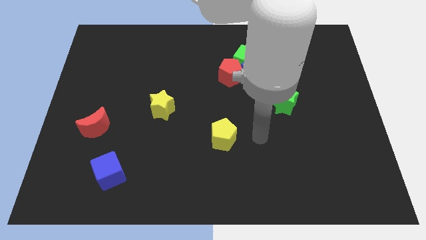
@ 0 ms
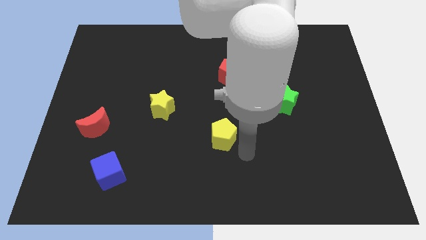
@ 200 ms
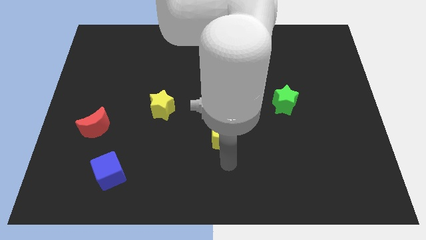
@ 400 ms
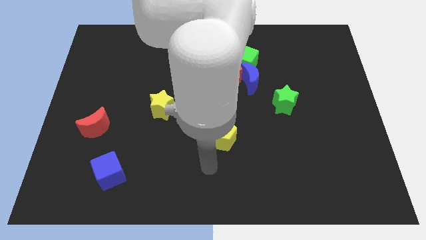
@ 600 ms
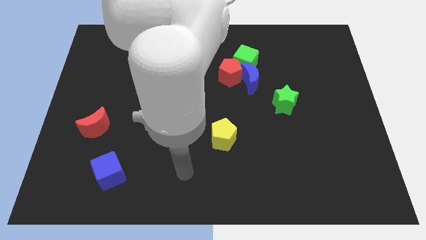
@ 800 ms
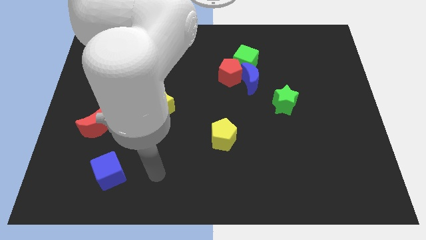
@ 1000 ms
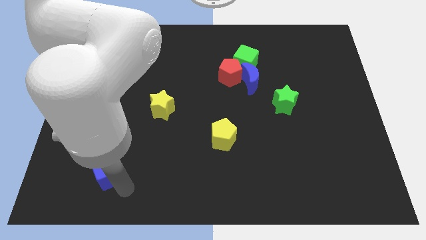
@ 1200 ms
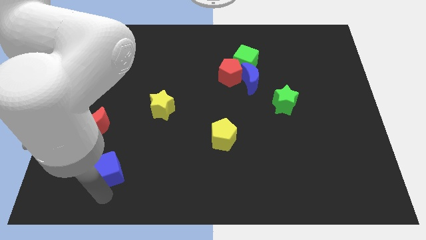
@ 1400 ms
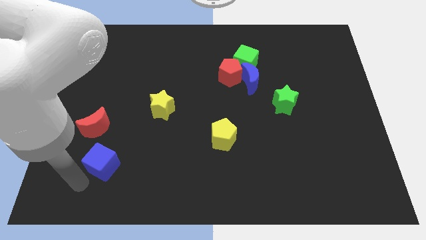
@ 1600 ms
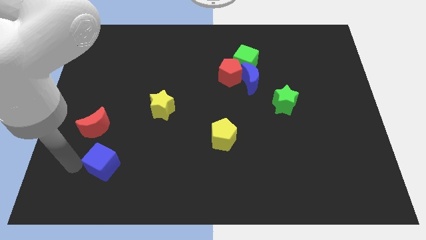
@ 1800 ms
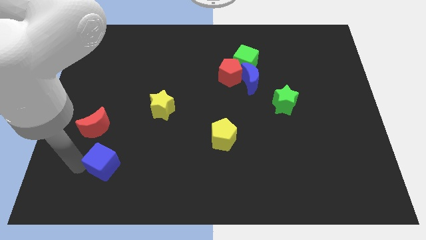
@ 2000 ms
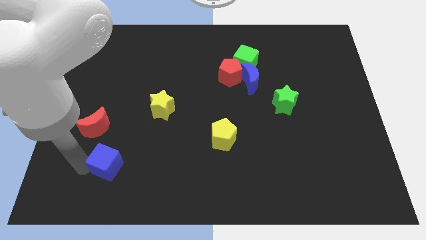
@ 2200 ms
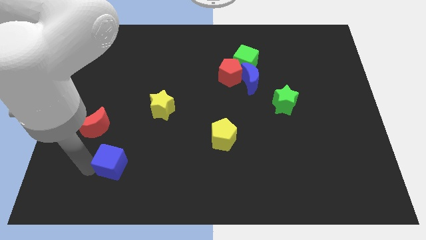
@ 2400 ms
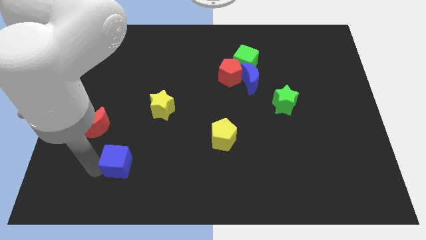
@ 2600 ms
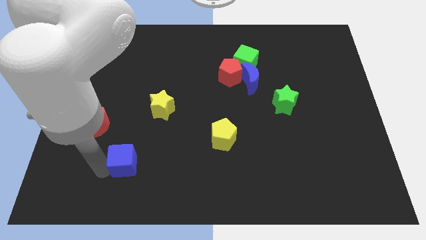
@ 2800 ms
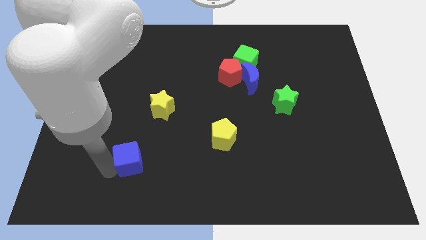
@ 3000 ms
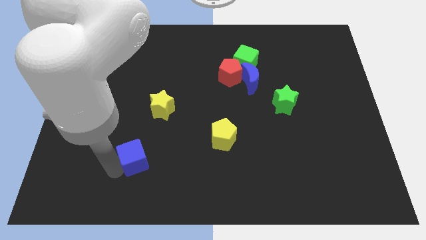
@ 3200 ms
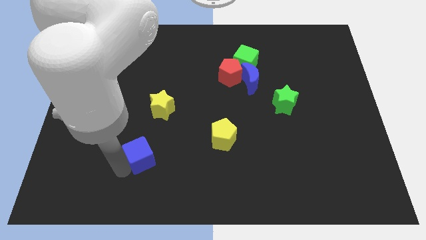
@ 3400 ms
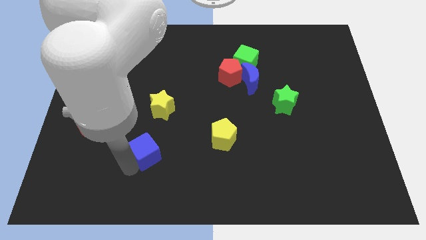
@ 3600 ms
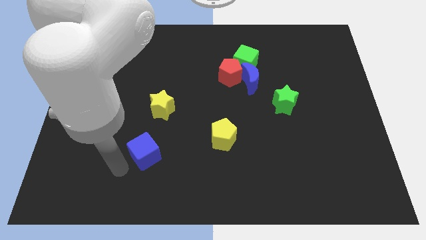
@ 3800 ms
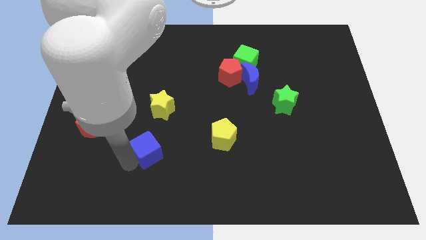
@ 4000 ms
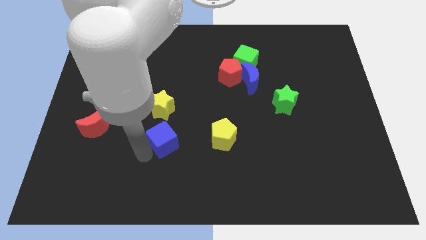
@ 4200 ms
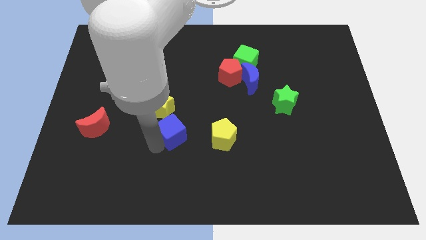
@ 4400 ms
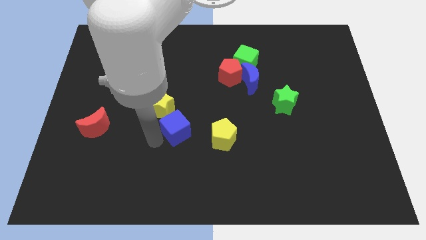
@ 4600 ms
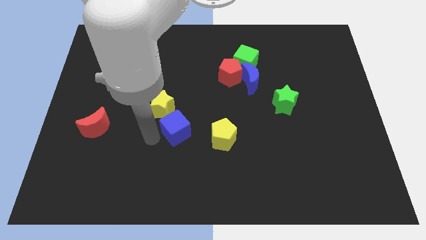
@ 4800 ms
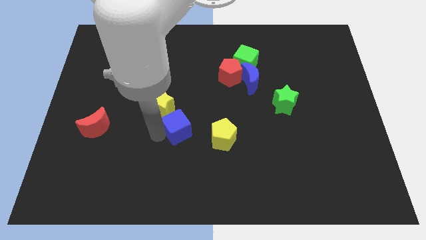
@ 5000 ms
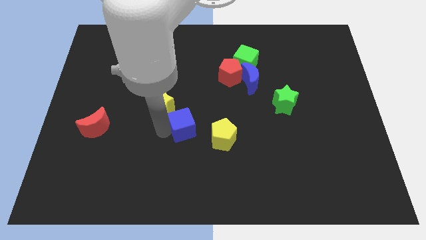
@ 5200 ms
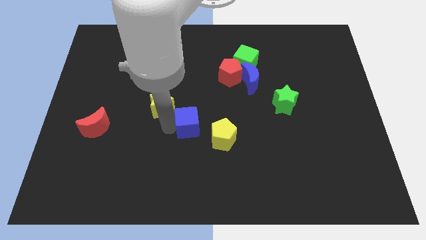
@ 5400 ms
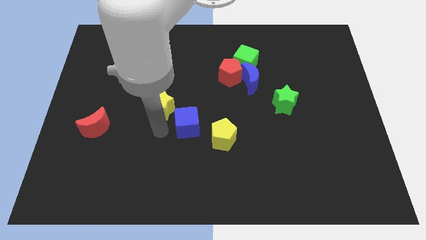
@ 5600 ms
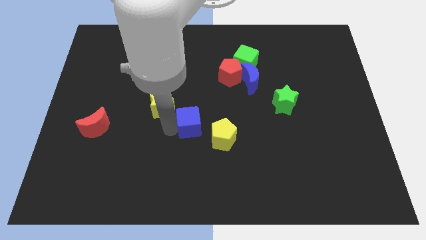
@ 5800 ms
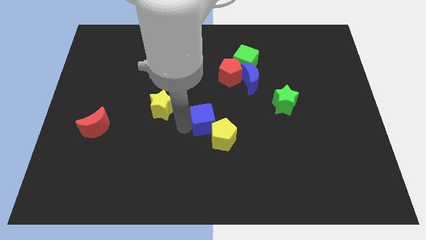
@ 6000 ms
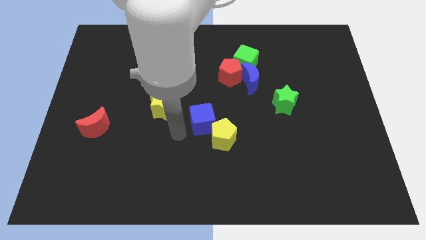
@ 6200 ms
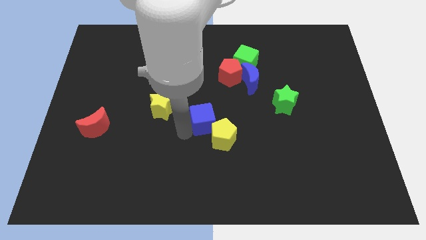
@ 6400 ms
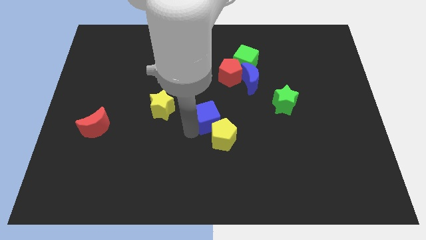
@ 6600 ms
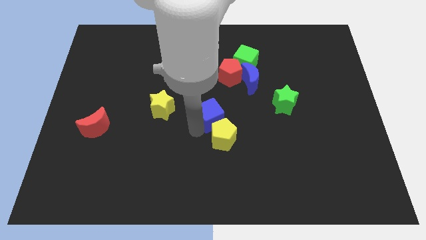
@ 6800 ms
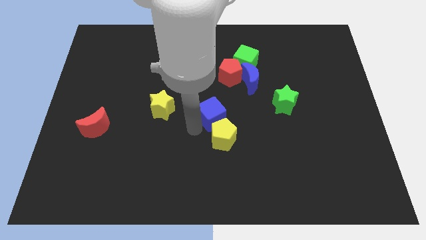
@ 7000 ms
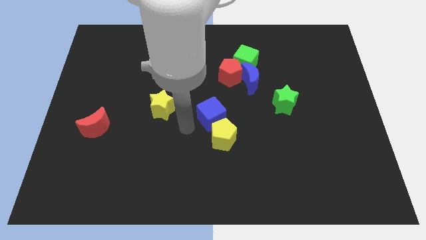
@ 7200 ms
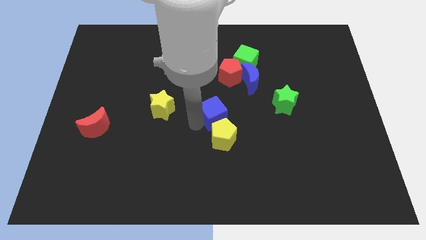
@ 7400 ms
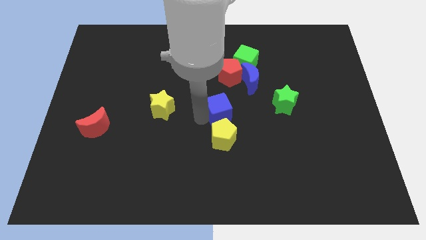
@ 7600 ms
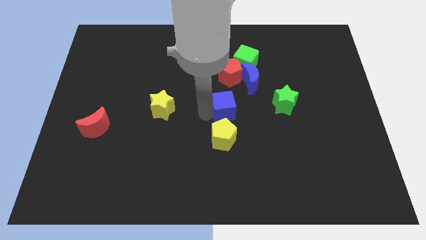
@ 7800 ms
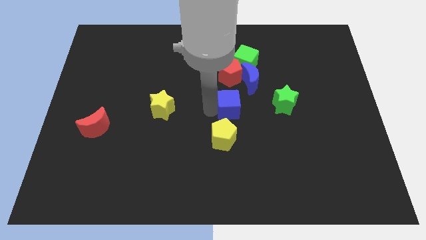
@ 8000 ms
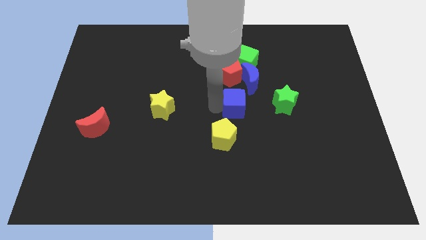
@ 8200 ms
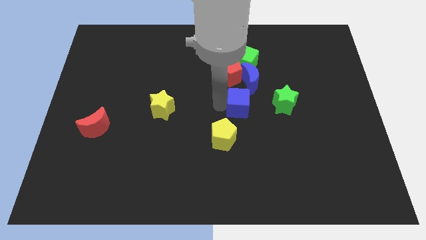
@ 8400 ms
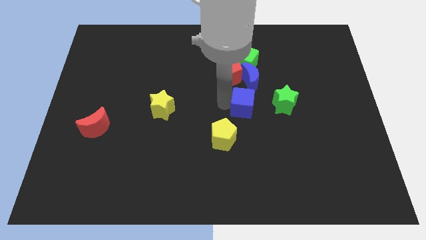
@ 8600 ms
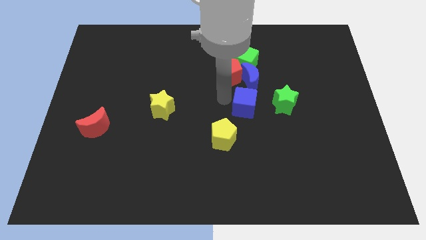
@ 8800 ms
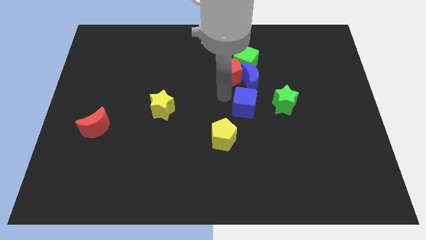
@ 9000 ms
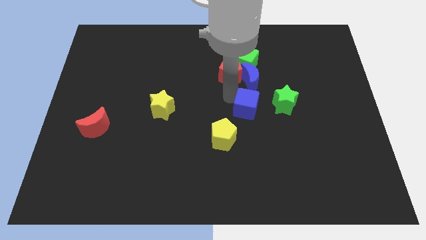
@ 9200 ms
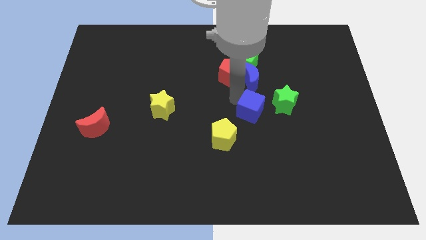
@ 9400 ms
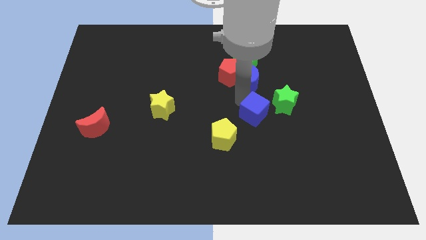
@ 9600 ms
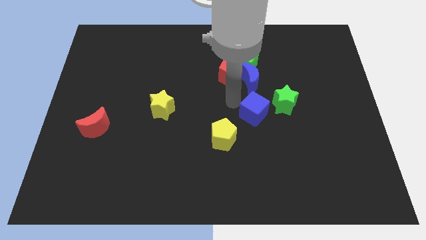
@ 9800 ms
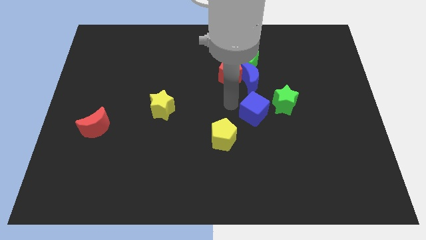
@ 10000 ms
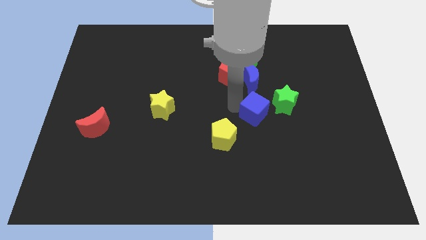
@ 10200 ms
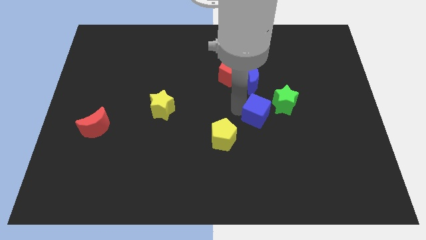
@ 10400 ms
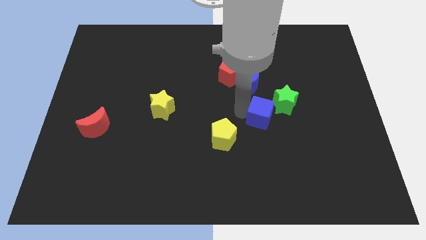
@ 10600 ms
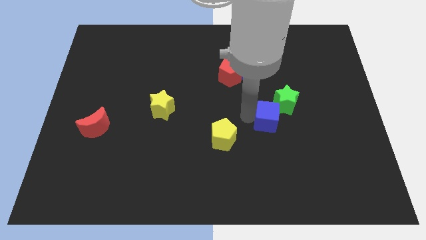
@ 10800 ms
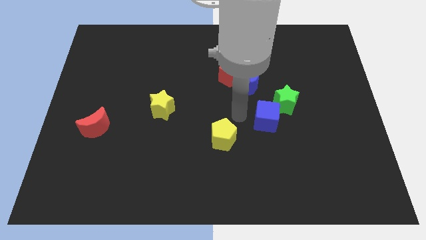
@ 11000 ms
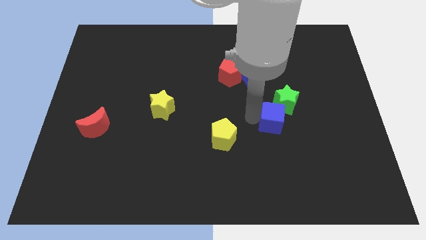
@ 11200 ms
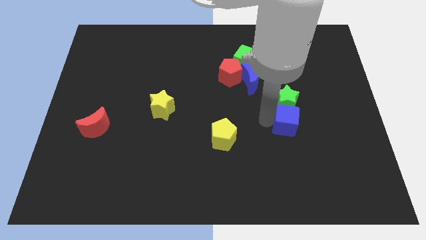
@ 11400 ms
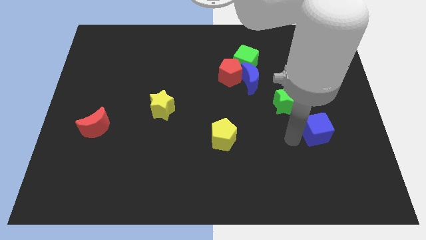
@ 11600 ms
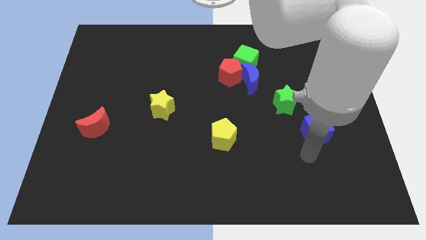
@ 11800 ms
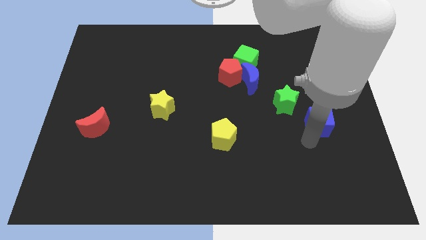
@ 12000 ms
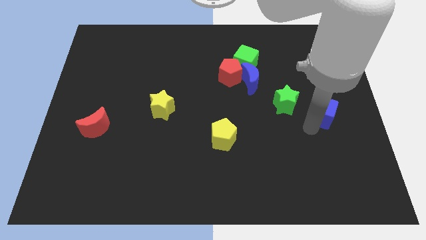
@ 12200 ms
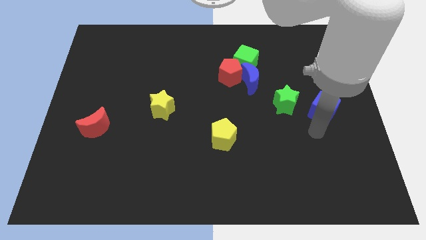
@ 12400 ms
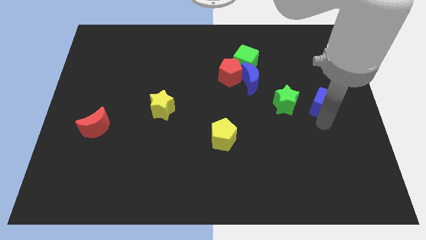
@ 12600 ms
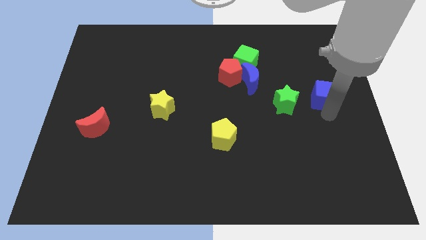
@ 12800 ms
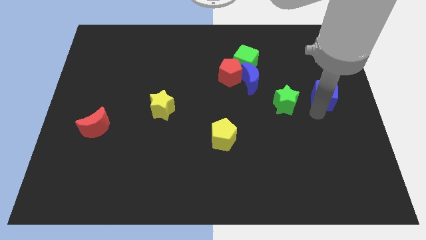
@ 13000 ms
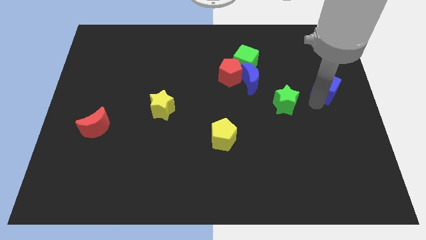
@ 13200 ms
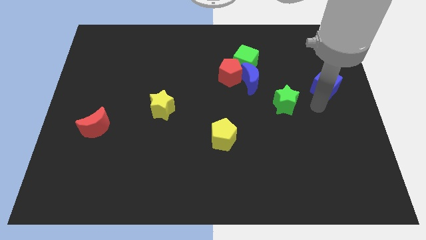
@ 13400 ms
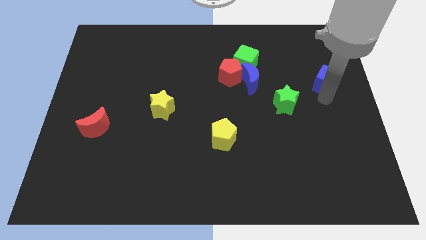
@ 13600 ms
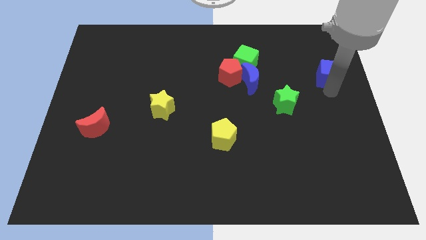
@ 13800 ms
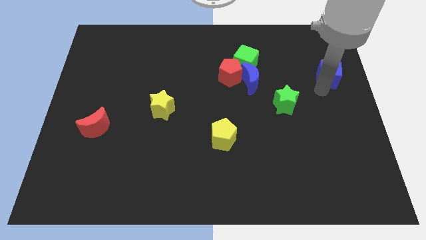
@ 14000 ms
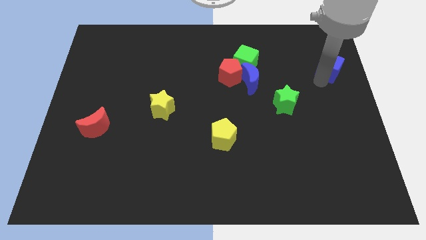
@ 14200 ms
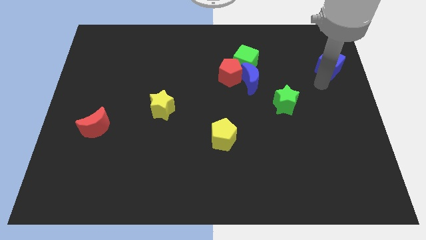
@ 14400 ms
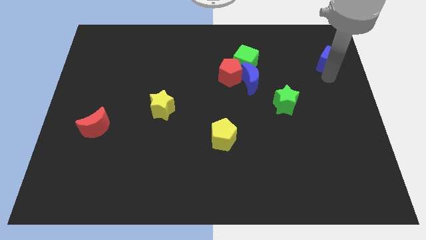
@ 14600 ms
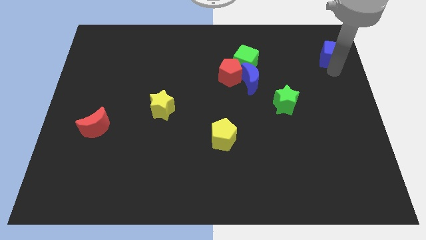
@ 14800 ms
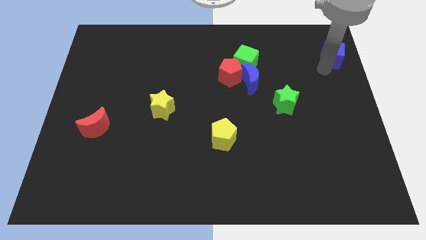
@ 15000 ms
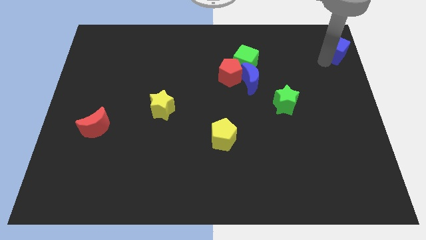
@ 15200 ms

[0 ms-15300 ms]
push the blue cube to the top right
